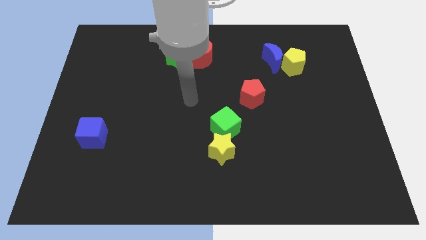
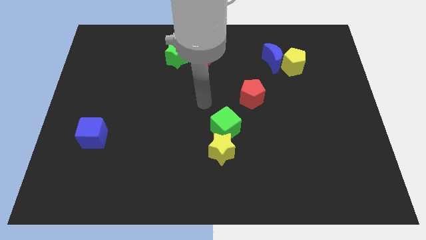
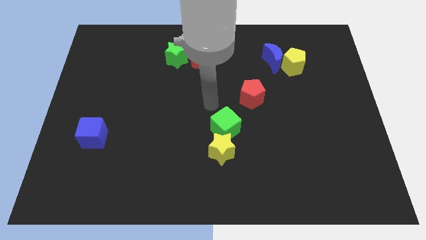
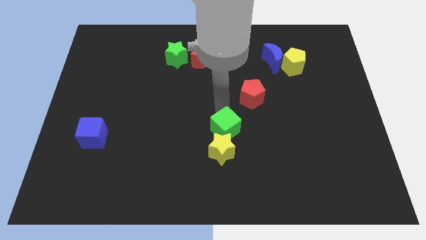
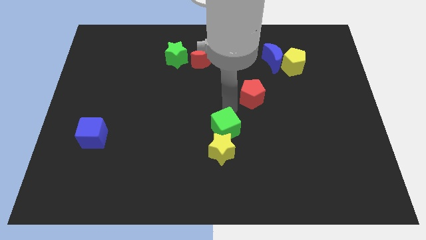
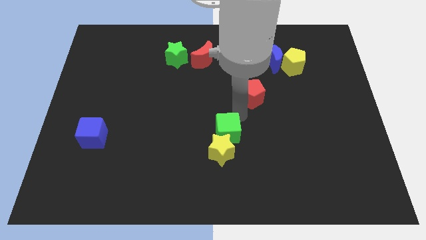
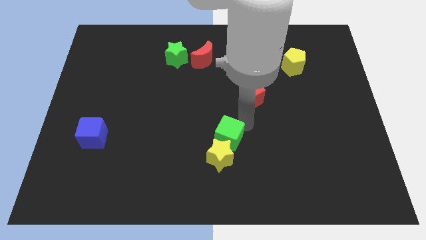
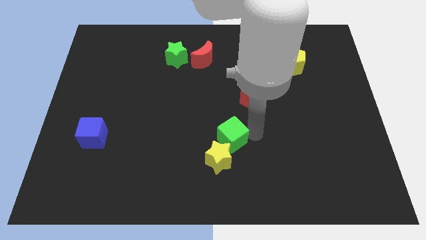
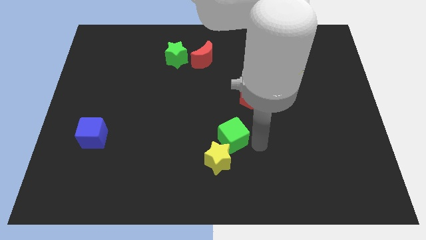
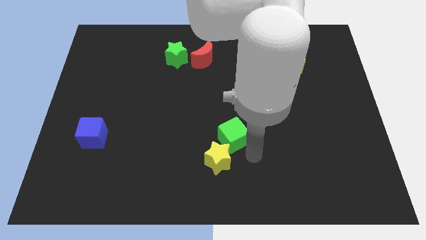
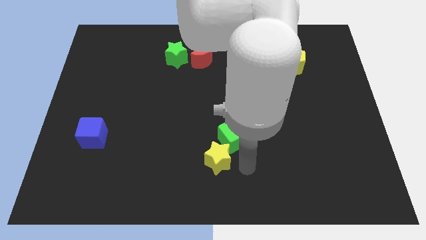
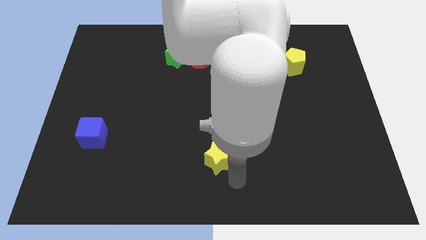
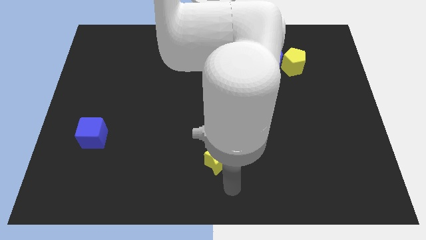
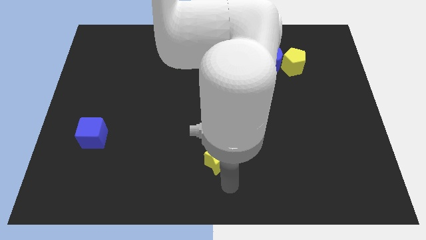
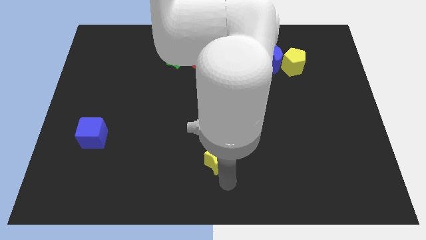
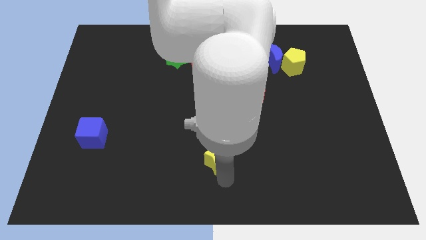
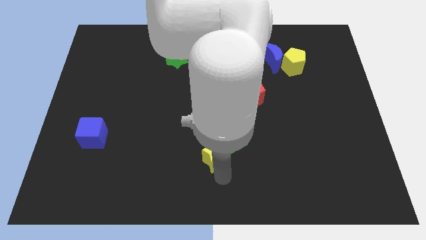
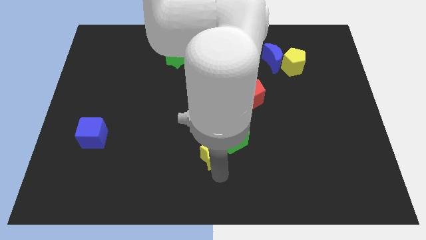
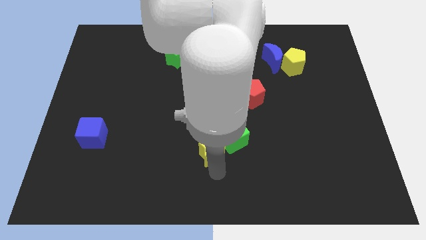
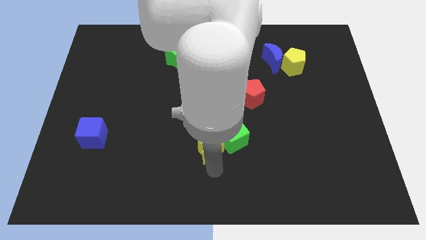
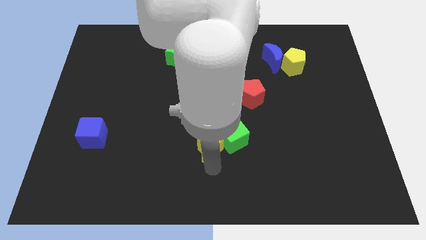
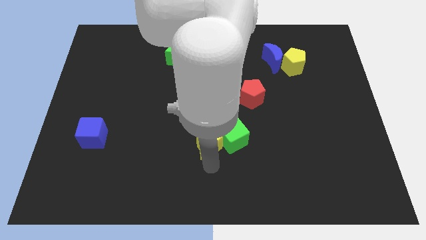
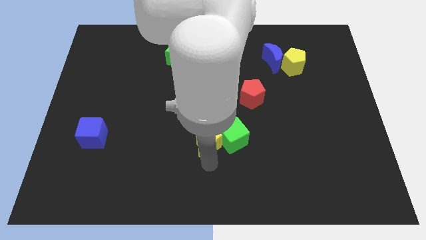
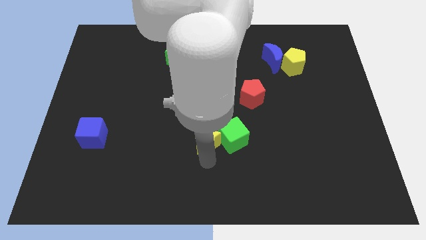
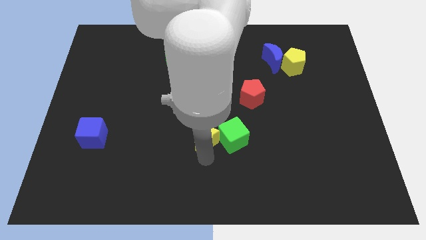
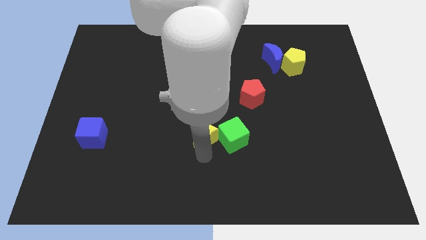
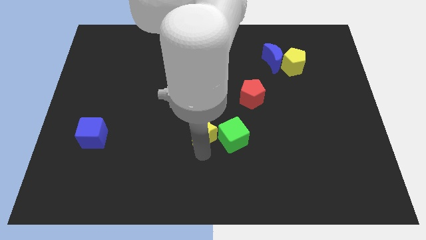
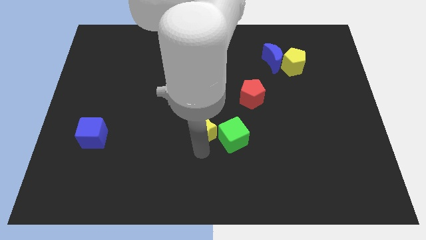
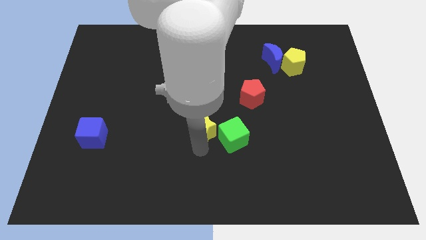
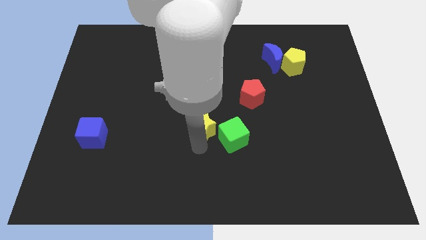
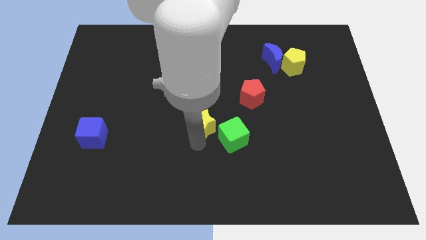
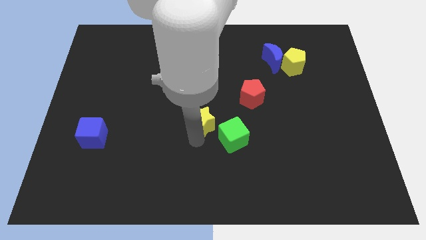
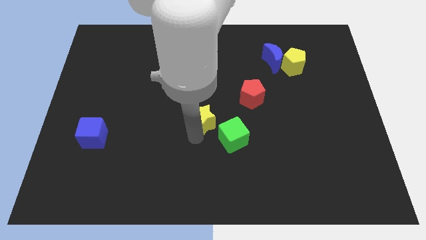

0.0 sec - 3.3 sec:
slightly move the yellow star upwards

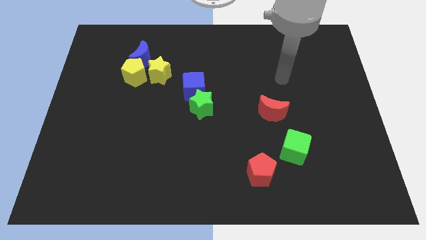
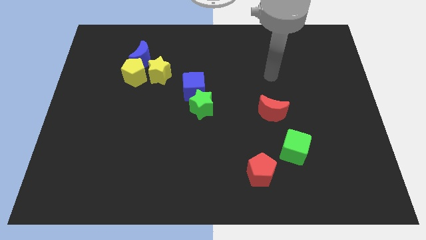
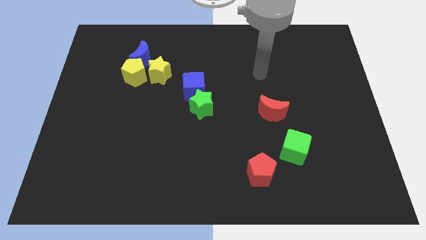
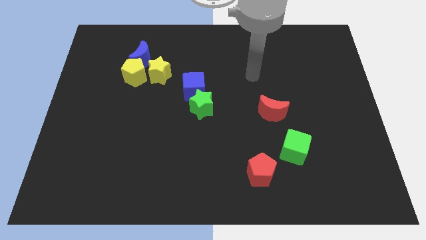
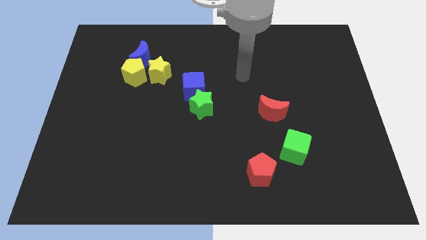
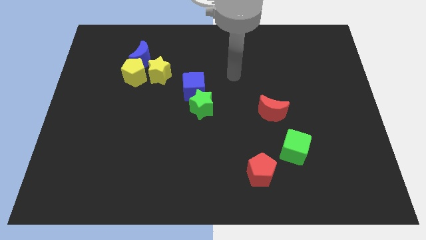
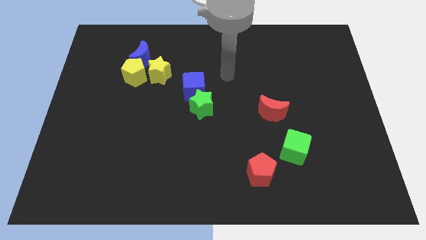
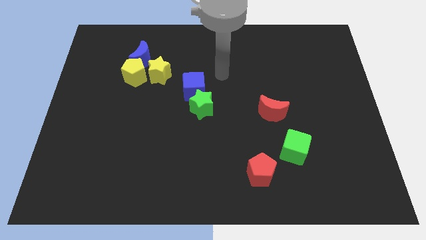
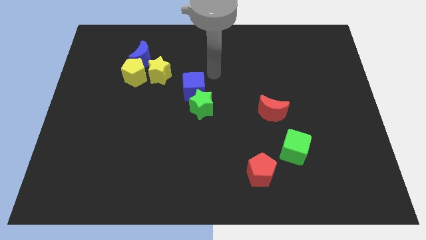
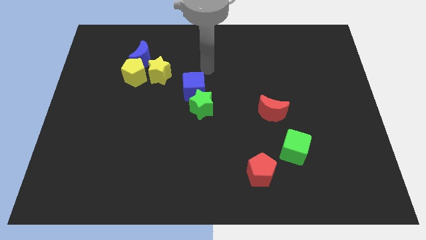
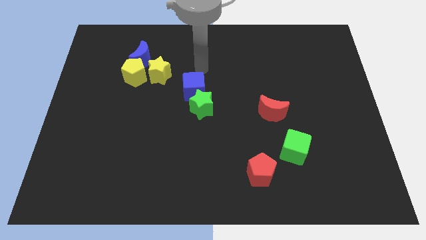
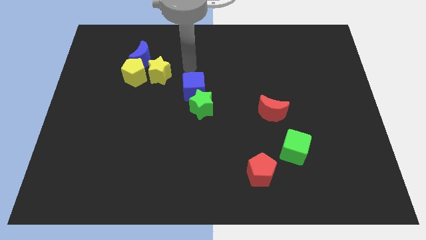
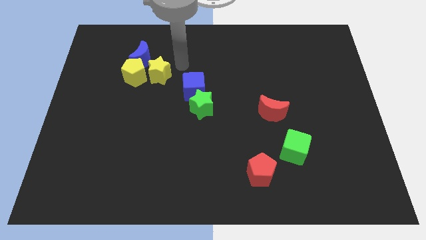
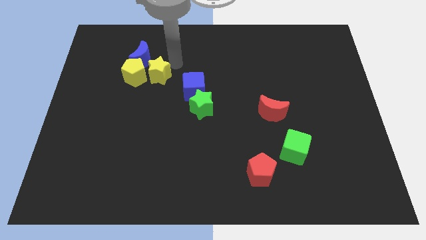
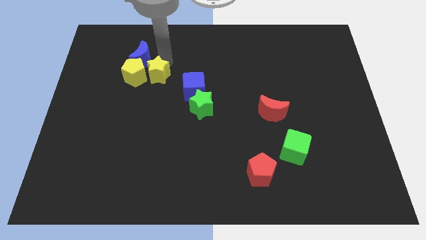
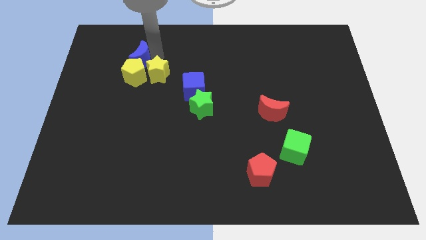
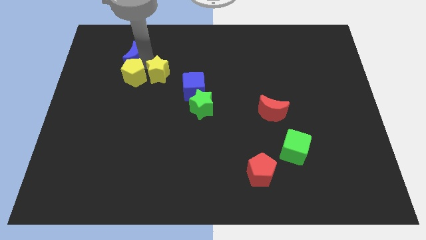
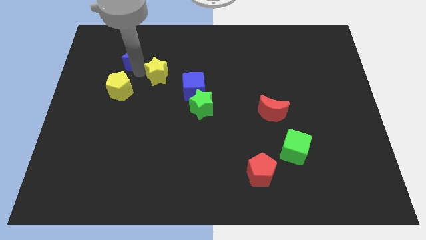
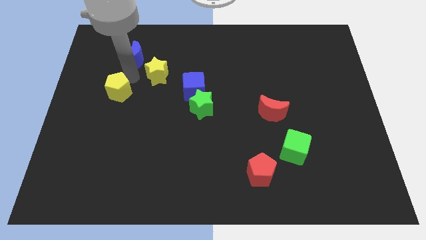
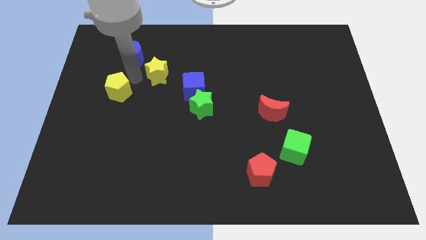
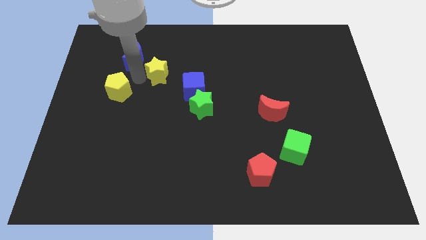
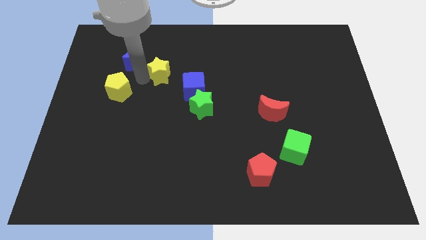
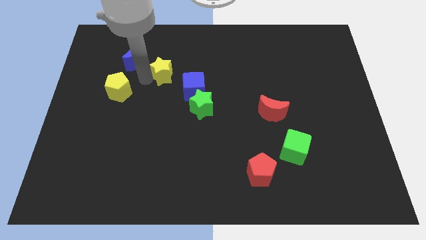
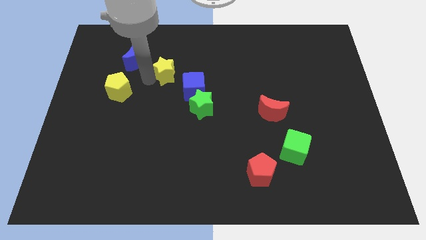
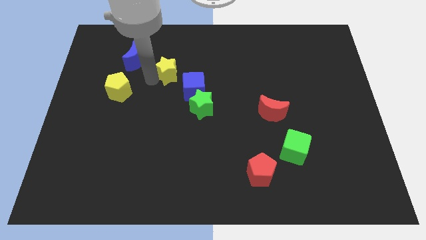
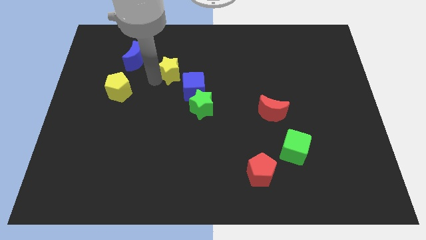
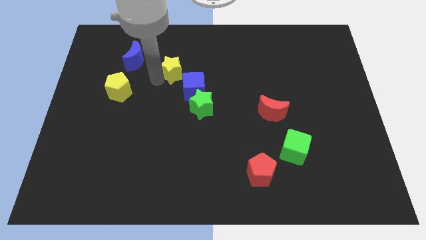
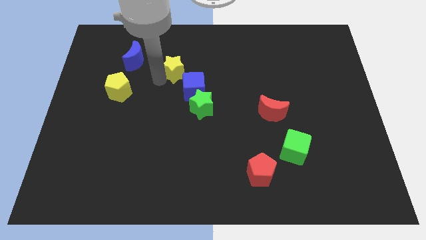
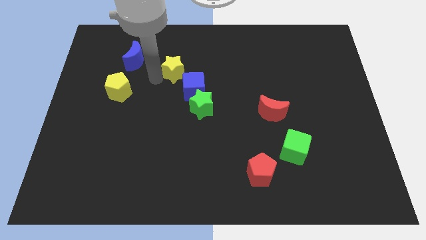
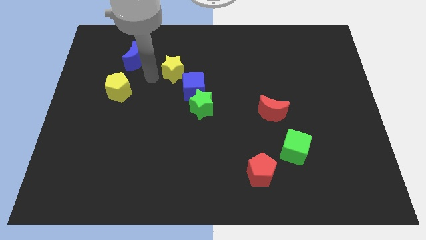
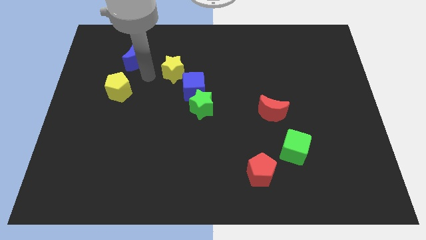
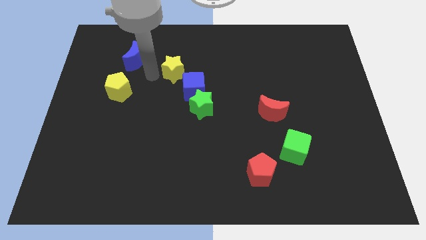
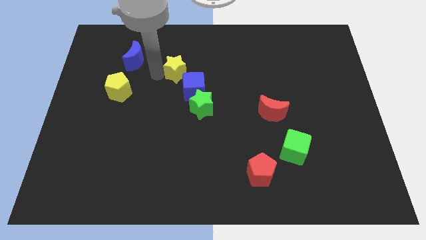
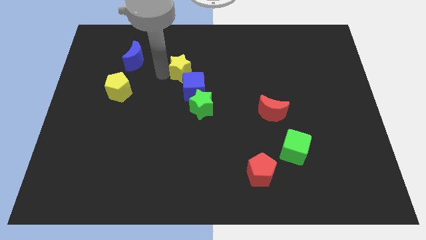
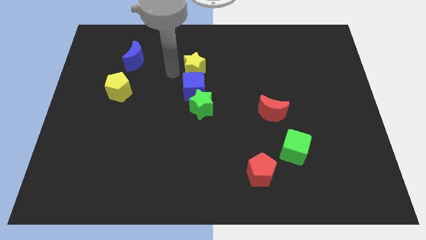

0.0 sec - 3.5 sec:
slightly push the yellow star right

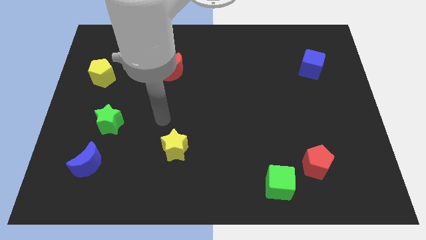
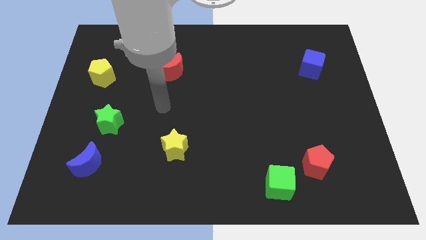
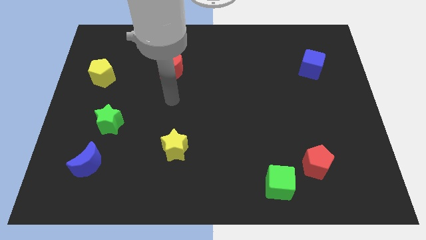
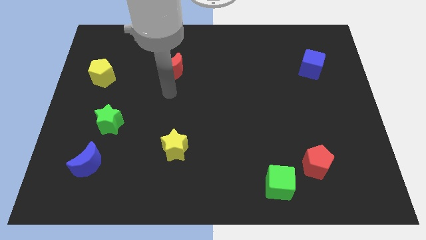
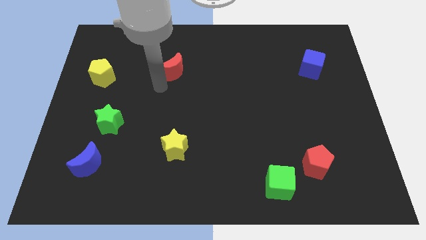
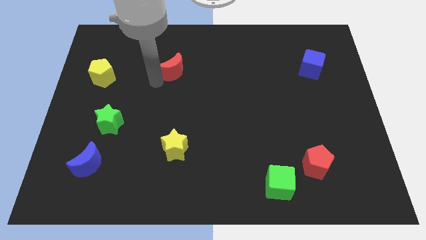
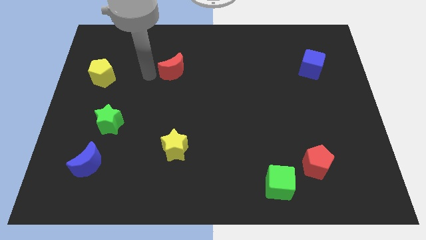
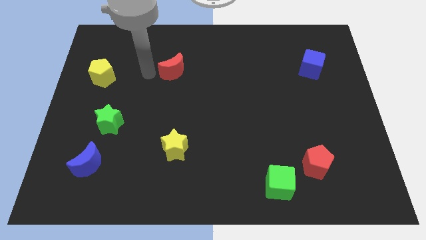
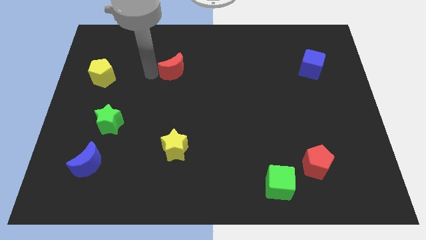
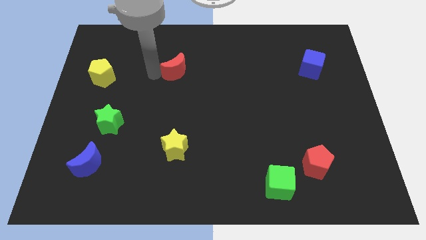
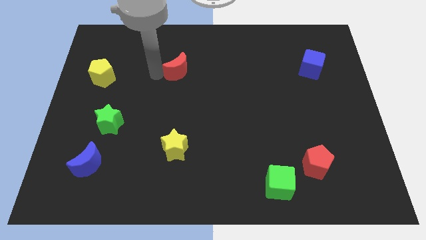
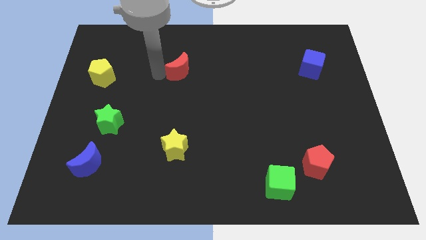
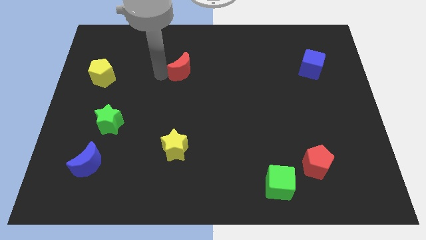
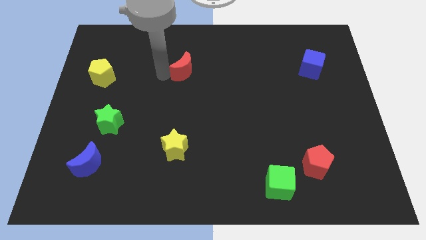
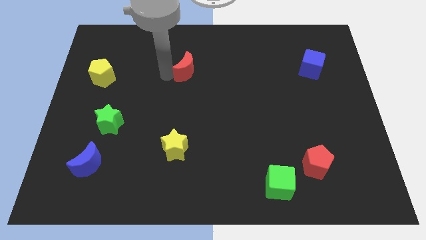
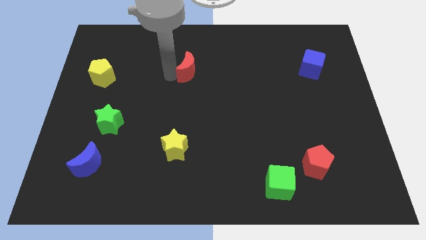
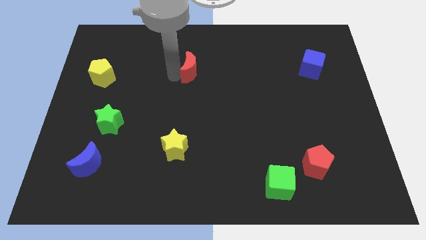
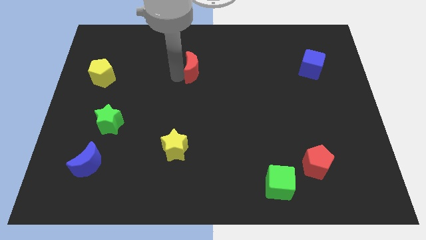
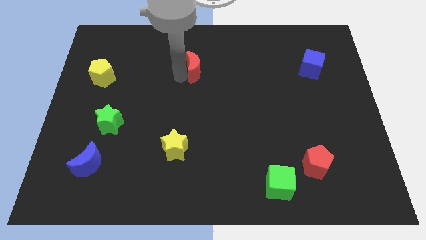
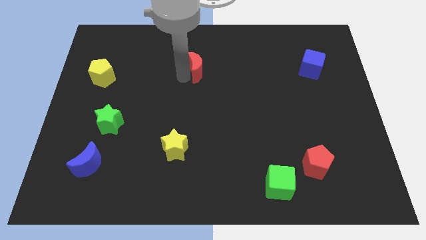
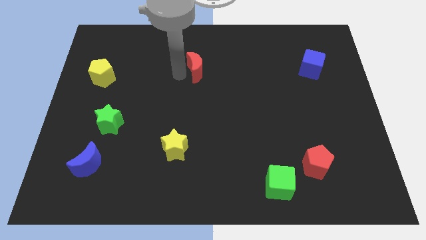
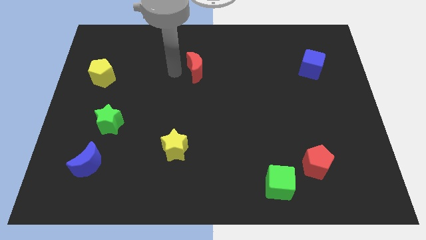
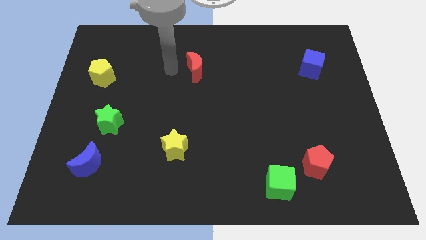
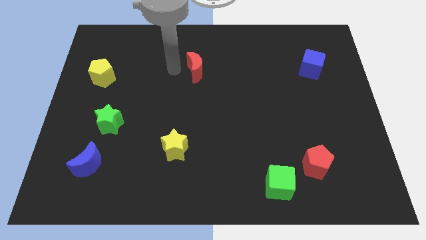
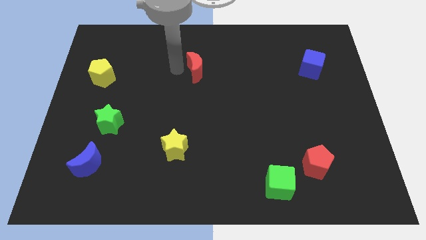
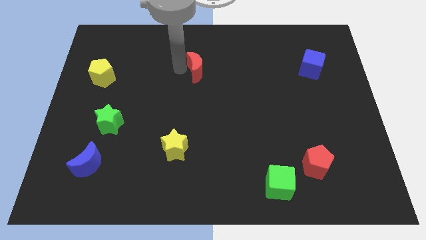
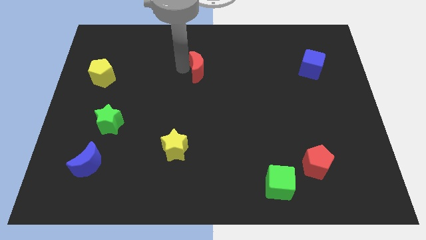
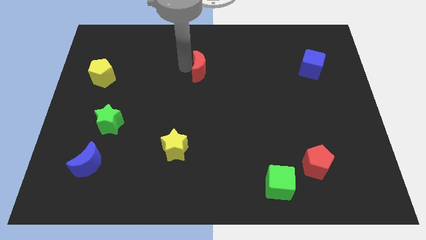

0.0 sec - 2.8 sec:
move the red moon a little to the right
